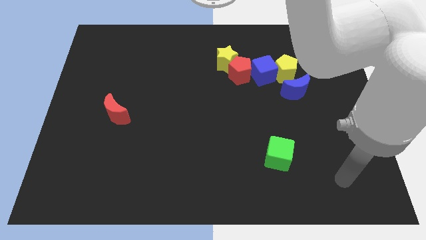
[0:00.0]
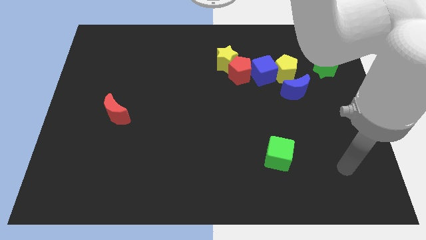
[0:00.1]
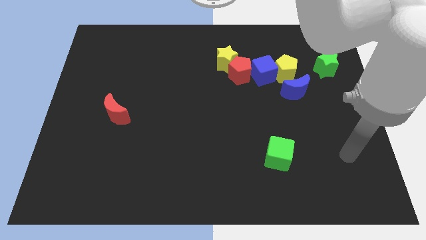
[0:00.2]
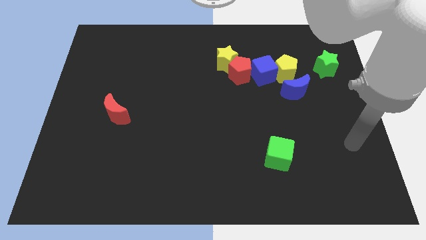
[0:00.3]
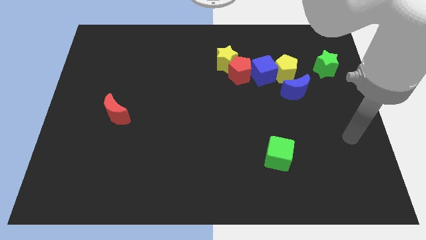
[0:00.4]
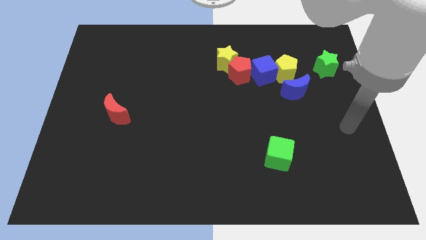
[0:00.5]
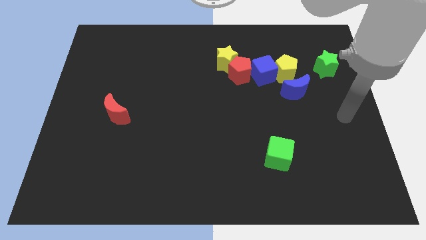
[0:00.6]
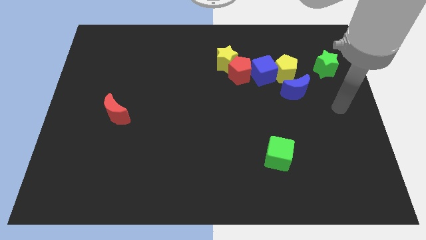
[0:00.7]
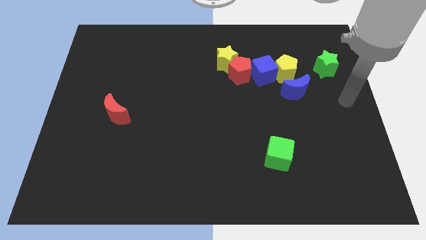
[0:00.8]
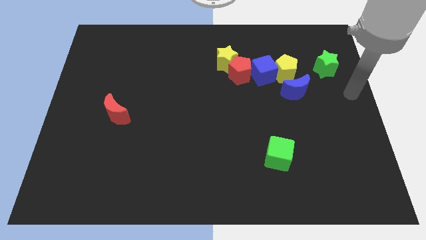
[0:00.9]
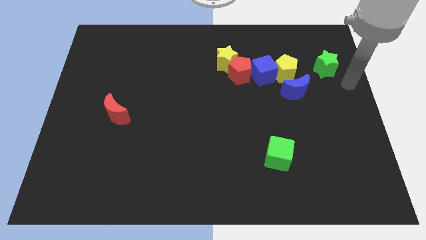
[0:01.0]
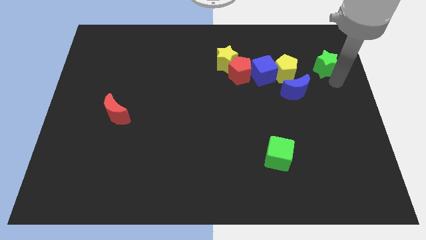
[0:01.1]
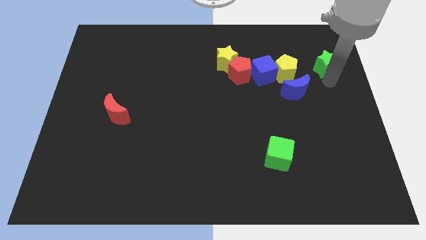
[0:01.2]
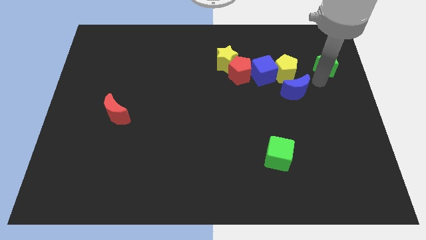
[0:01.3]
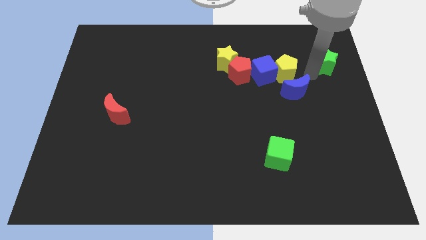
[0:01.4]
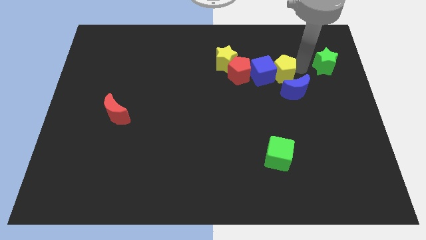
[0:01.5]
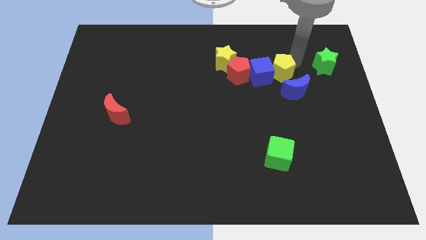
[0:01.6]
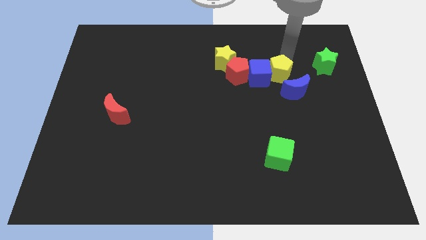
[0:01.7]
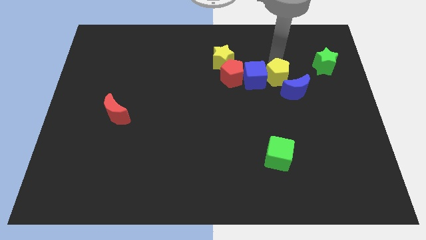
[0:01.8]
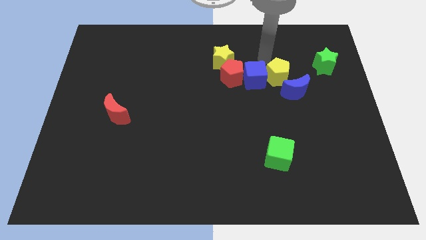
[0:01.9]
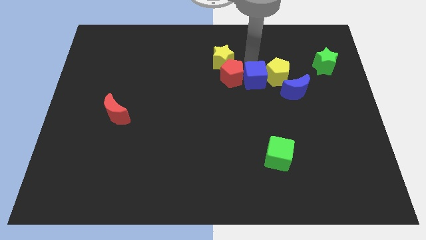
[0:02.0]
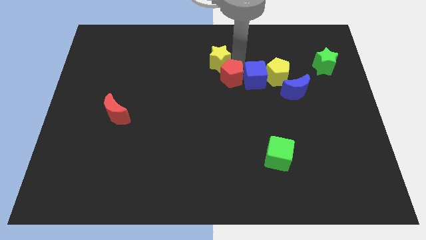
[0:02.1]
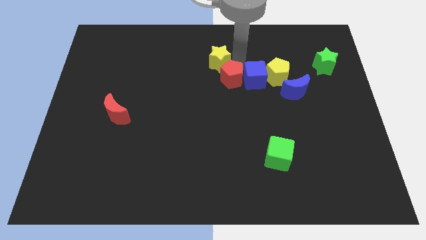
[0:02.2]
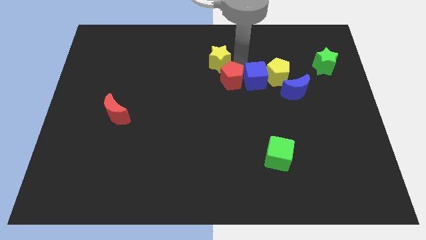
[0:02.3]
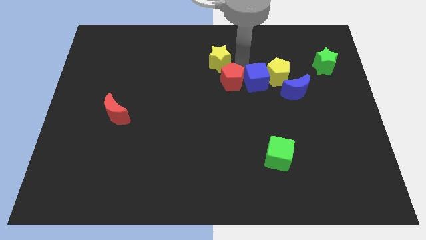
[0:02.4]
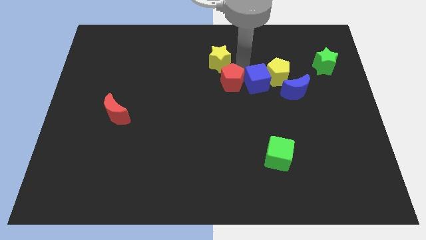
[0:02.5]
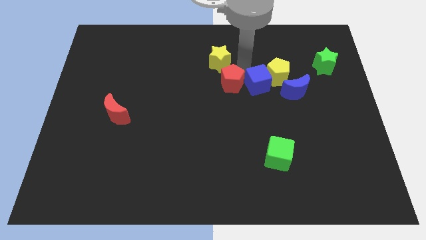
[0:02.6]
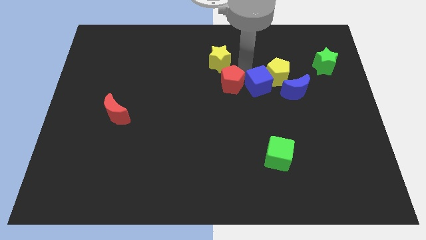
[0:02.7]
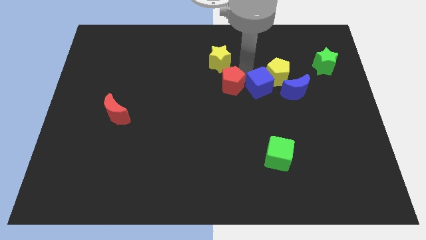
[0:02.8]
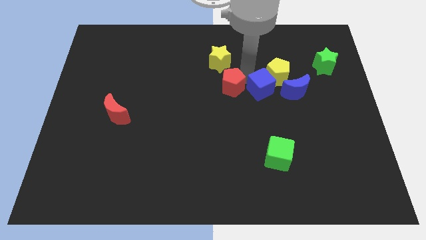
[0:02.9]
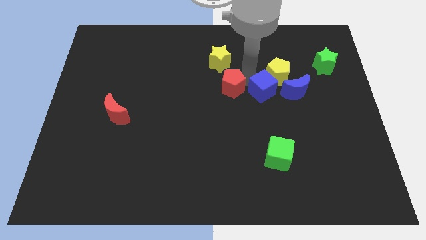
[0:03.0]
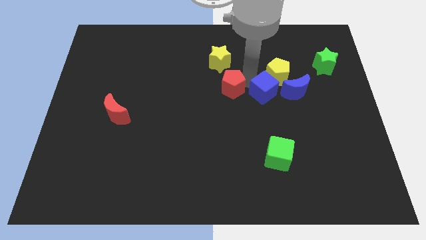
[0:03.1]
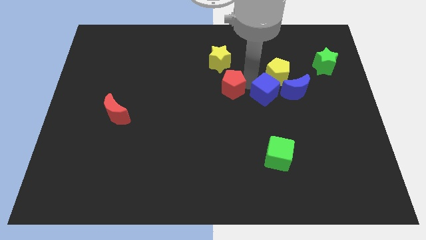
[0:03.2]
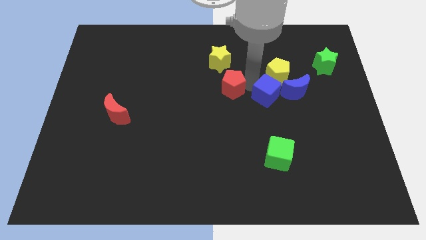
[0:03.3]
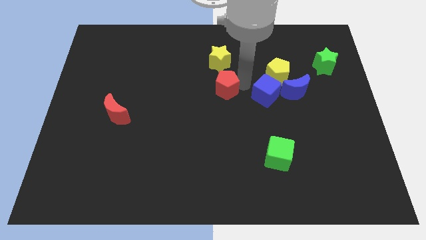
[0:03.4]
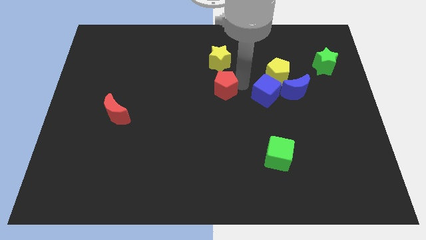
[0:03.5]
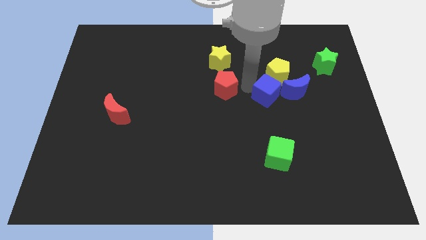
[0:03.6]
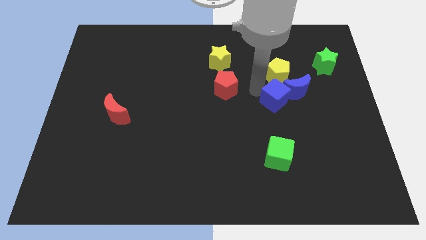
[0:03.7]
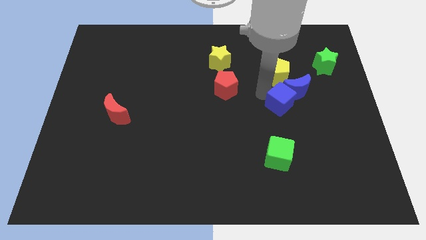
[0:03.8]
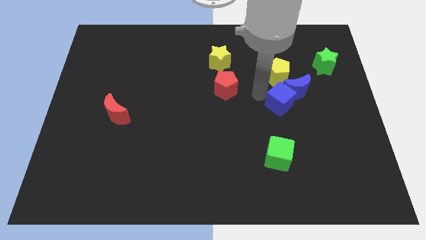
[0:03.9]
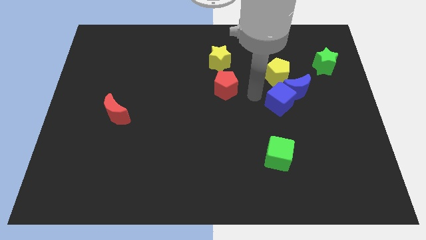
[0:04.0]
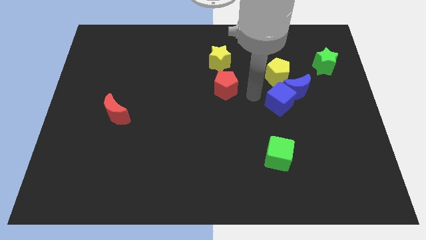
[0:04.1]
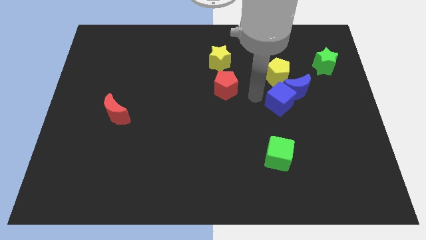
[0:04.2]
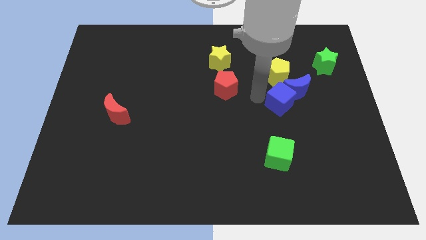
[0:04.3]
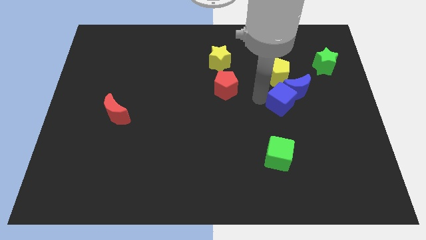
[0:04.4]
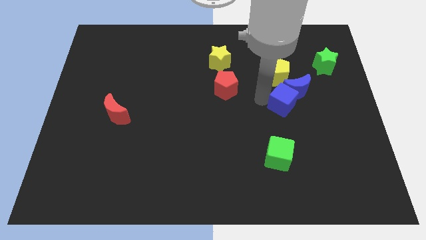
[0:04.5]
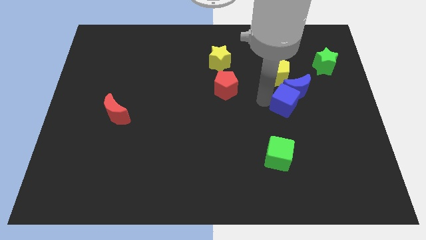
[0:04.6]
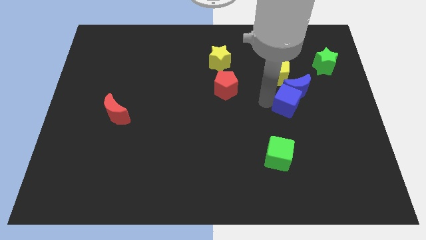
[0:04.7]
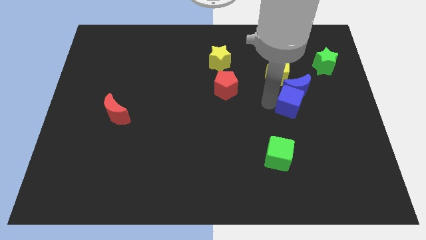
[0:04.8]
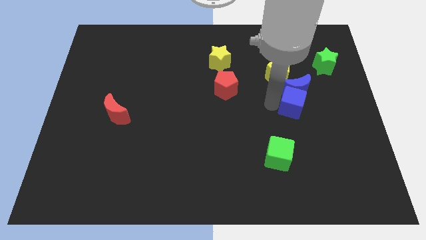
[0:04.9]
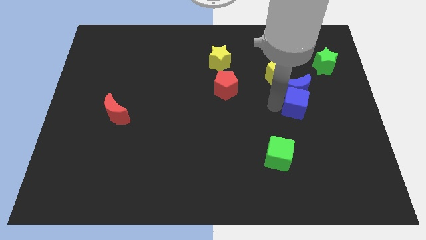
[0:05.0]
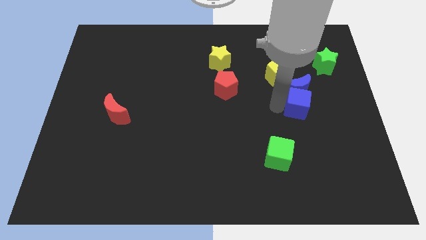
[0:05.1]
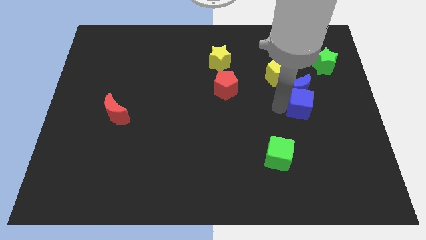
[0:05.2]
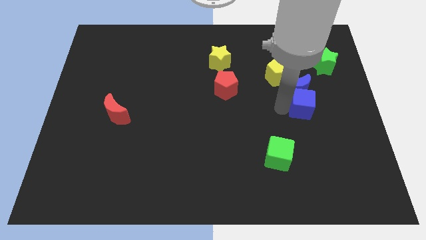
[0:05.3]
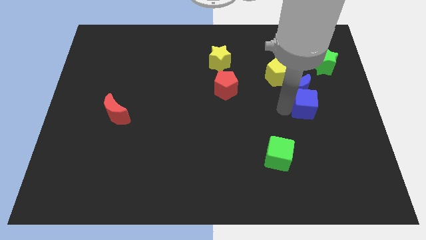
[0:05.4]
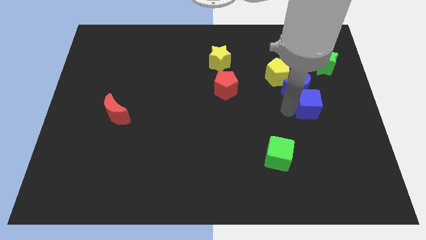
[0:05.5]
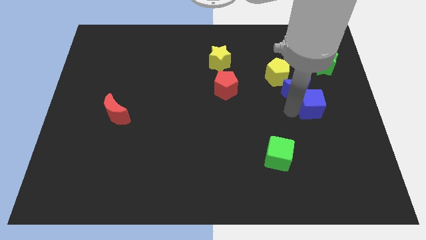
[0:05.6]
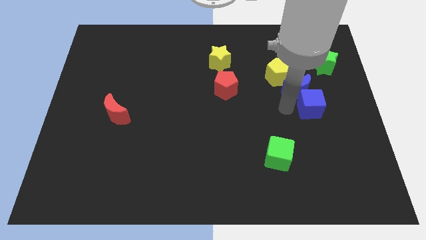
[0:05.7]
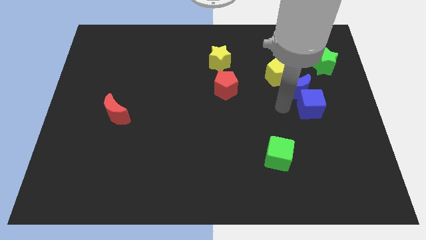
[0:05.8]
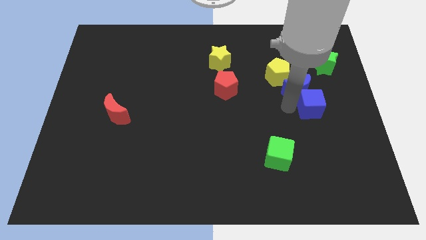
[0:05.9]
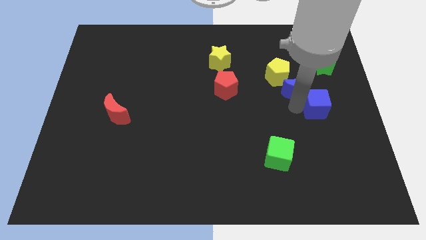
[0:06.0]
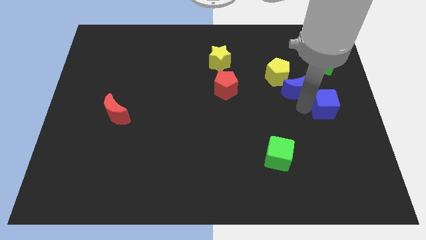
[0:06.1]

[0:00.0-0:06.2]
put the blue cube to the right side of the board

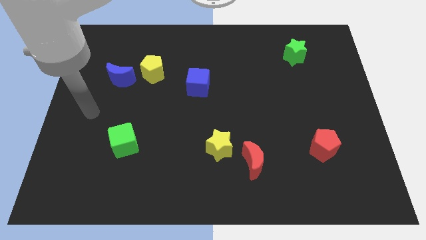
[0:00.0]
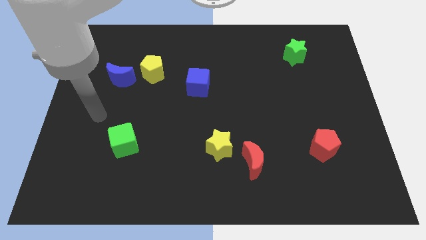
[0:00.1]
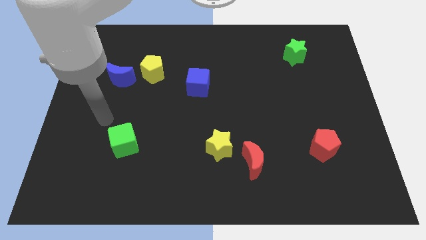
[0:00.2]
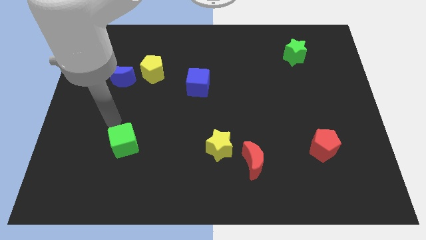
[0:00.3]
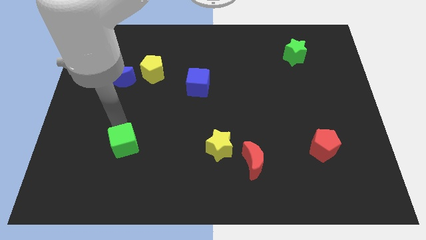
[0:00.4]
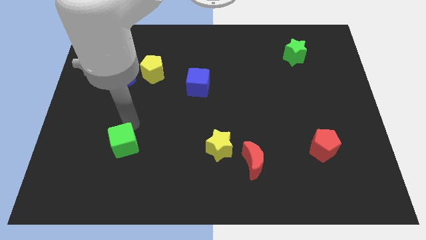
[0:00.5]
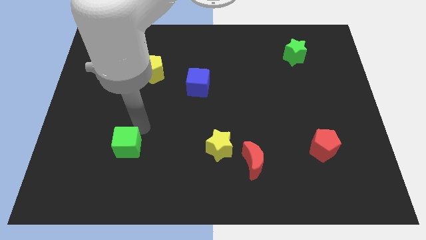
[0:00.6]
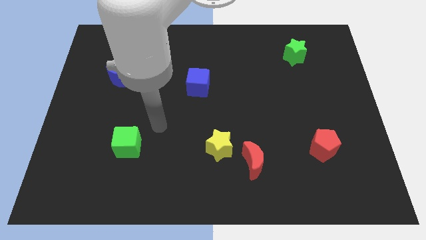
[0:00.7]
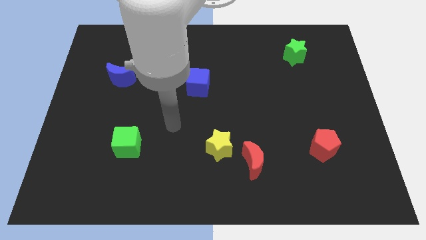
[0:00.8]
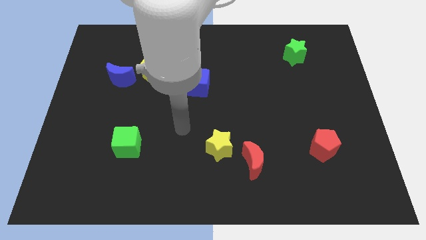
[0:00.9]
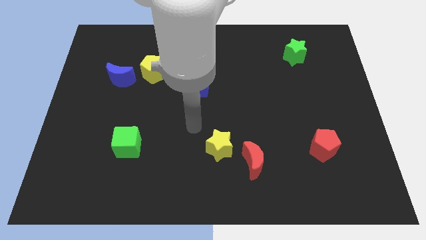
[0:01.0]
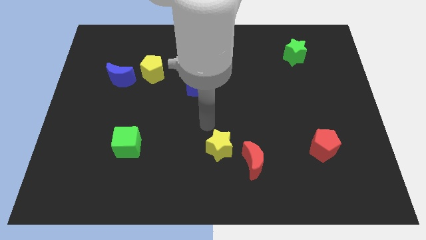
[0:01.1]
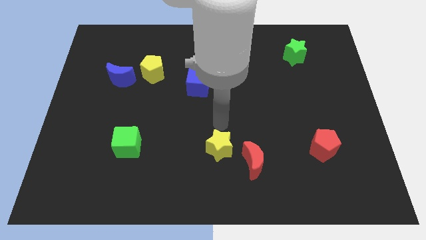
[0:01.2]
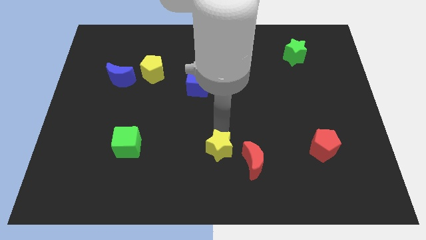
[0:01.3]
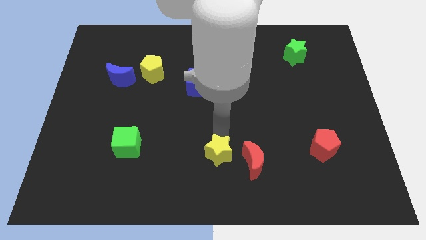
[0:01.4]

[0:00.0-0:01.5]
slide the yellow star to the bottom side
